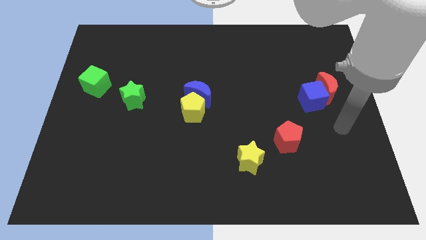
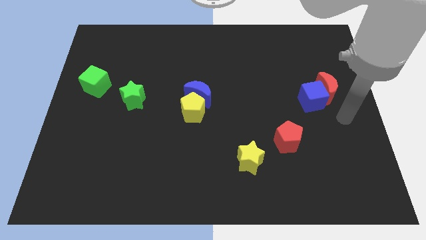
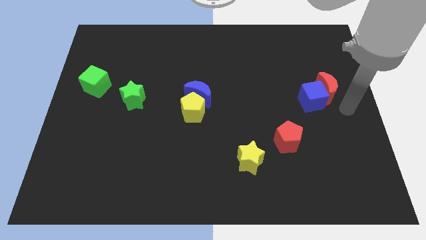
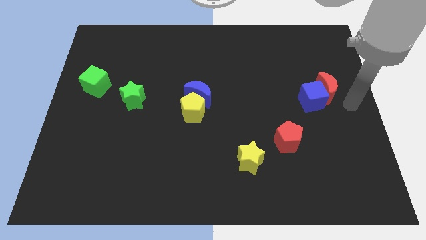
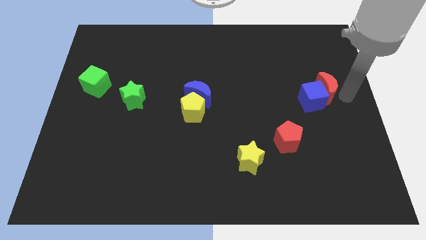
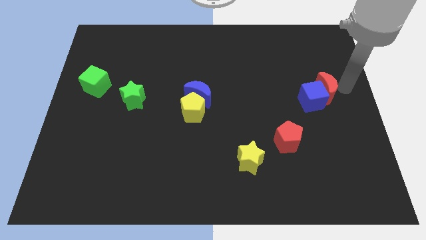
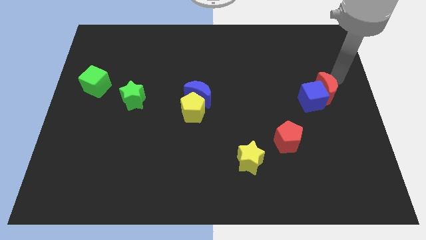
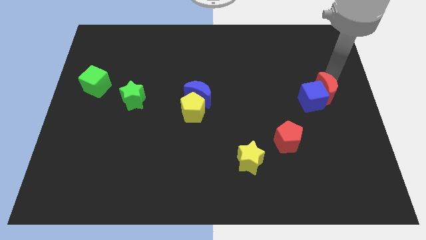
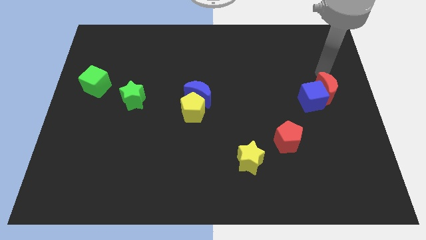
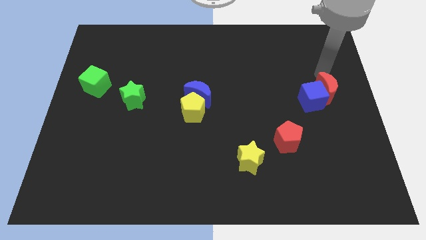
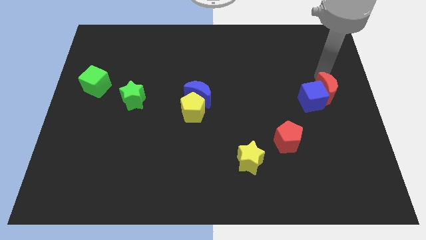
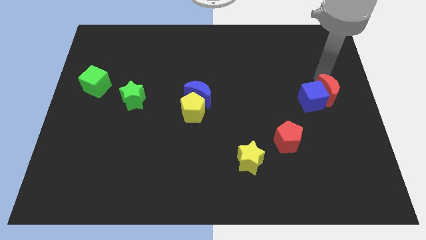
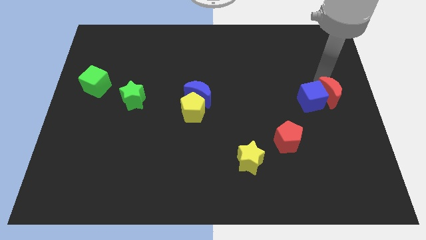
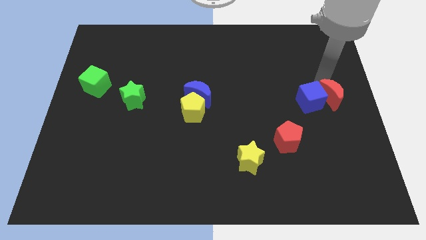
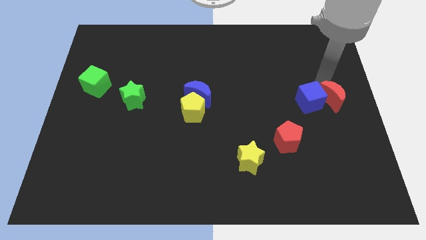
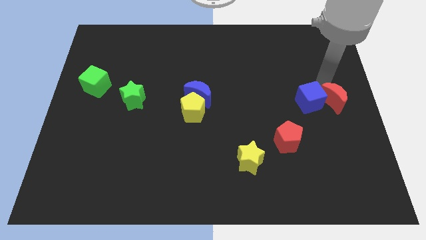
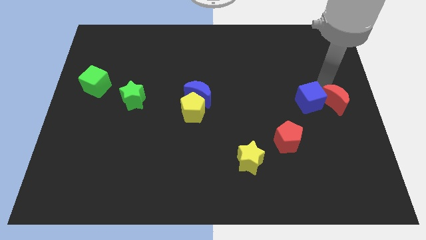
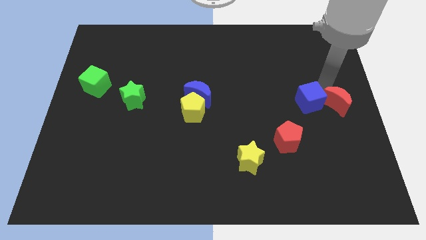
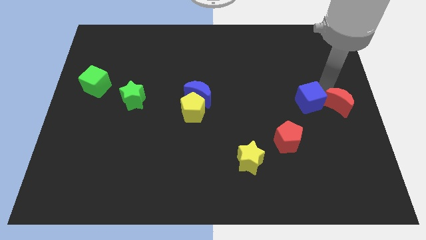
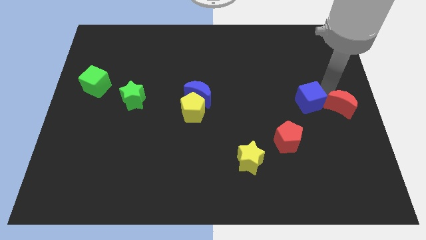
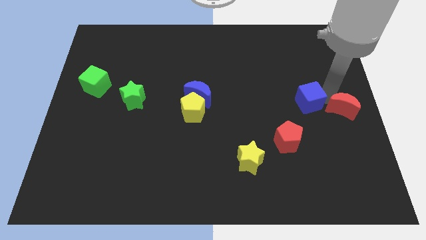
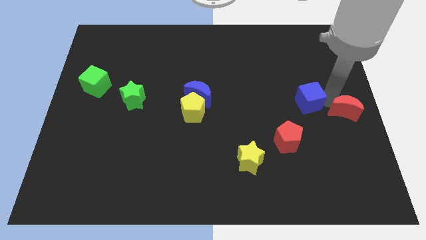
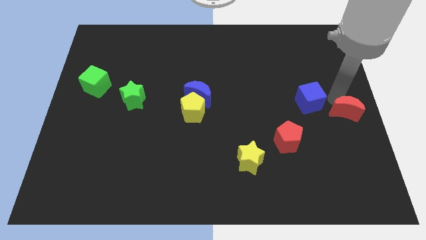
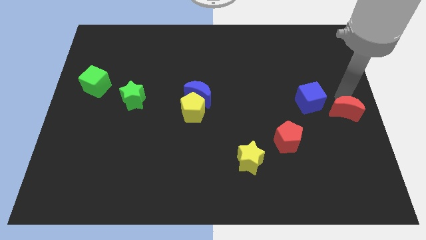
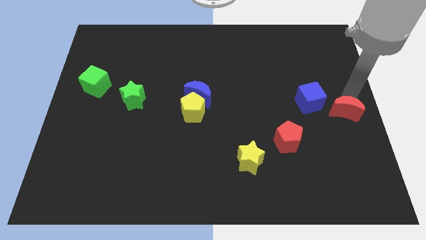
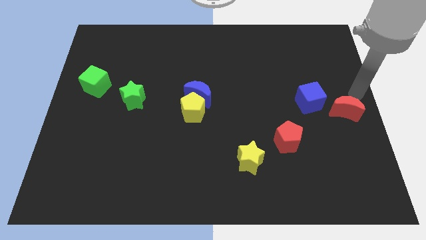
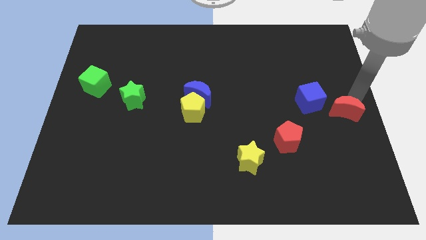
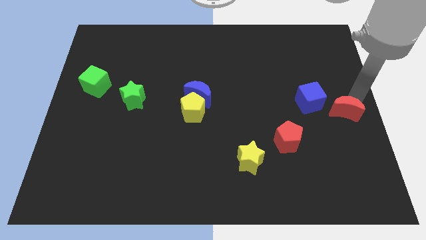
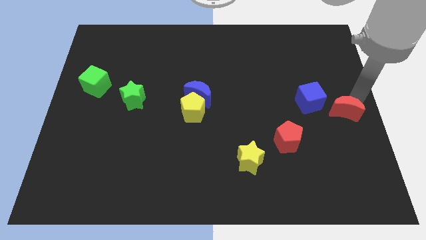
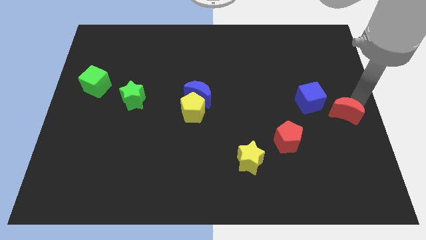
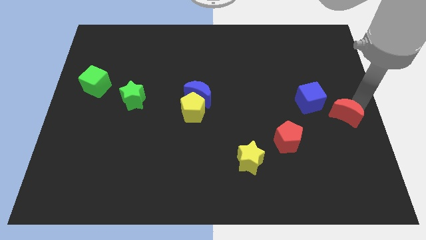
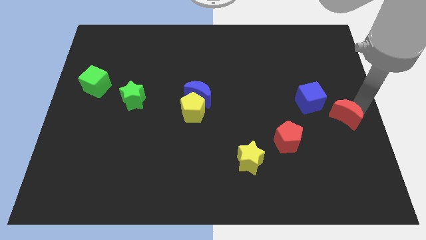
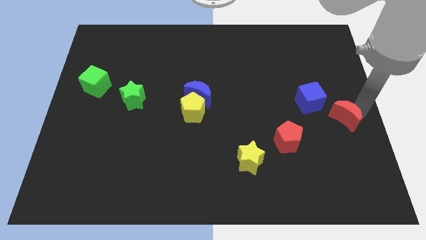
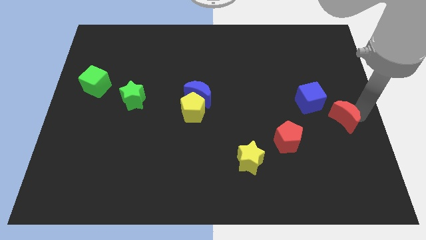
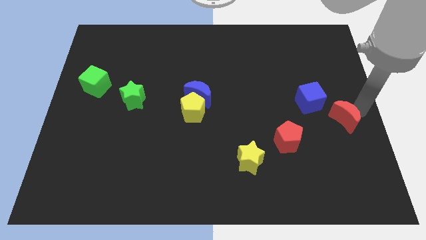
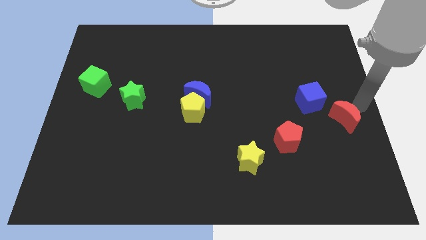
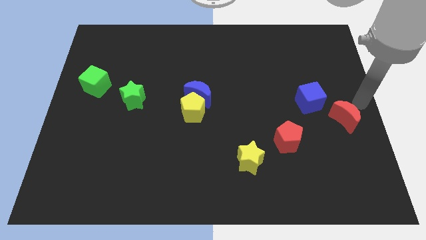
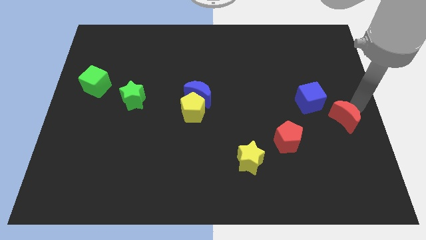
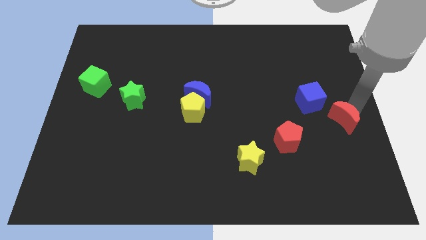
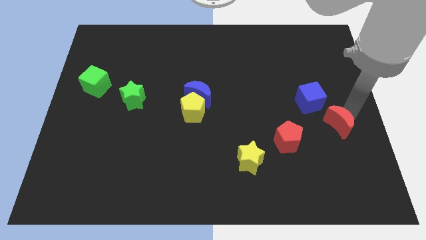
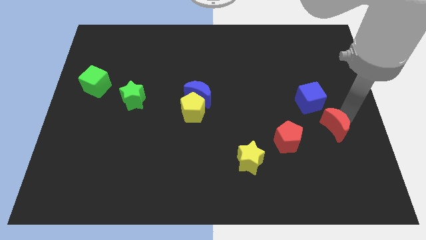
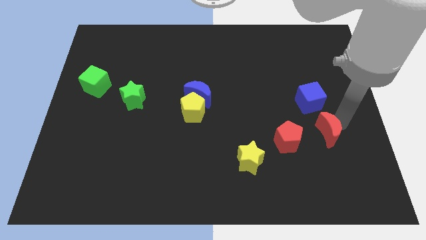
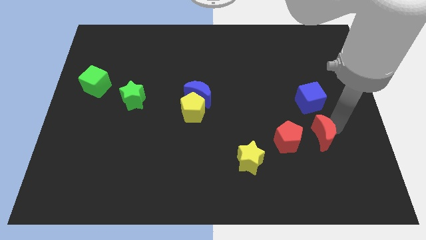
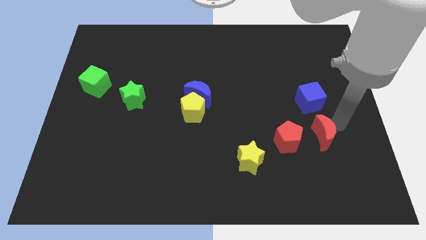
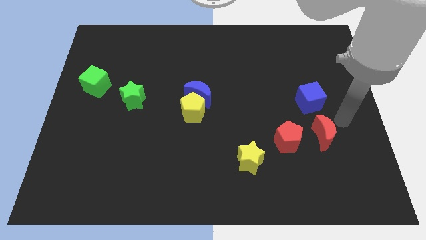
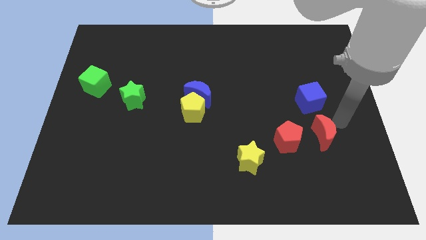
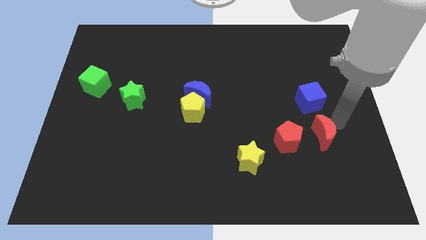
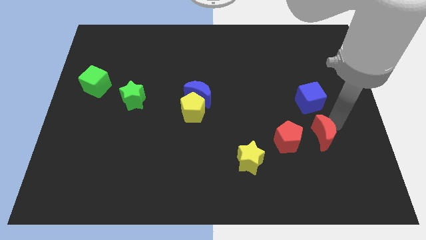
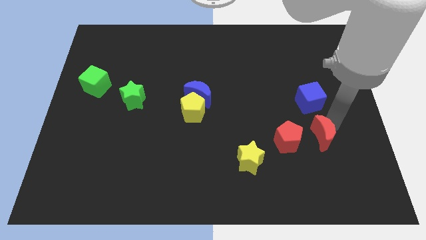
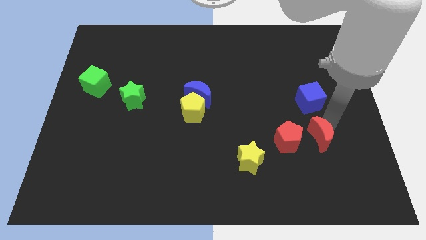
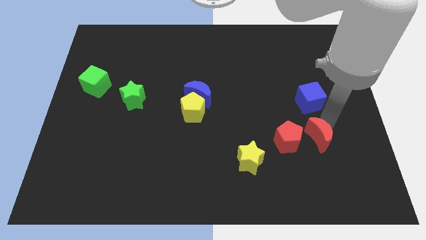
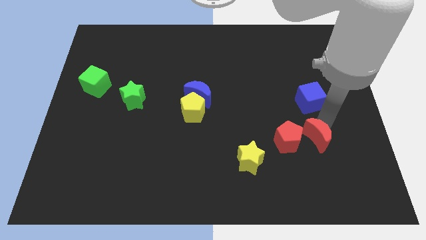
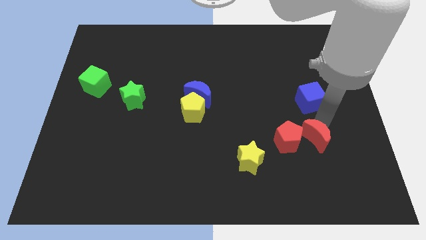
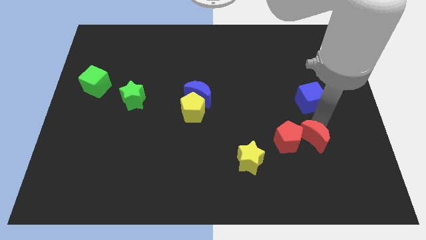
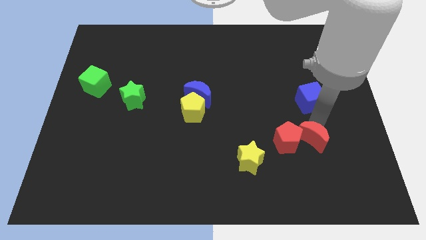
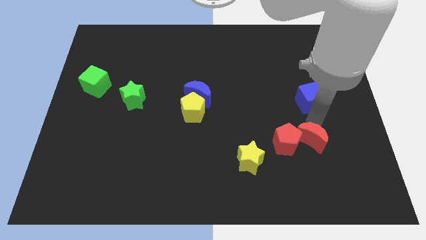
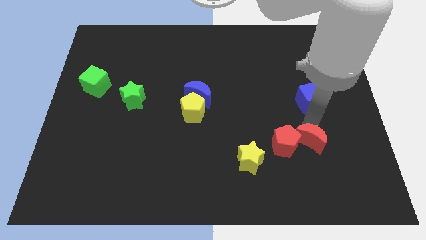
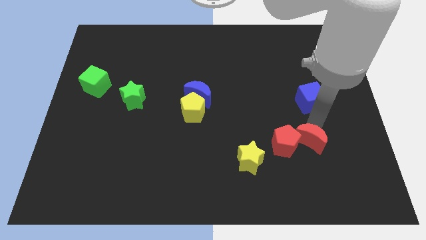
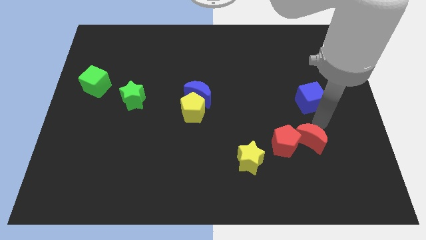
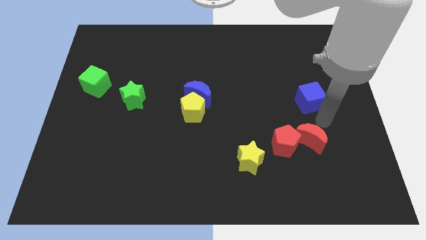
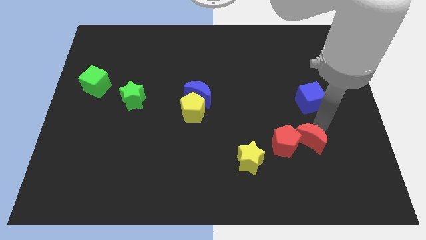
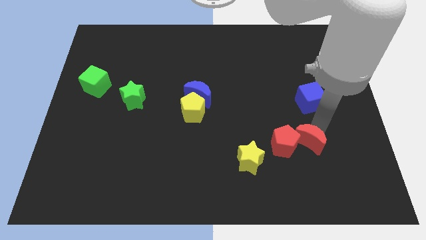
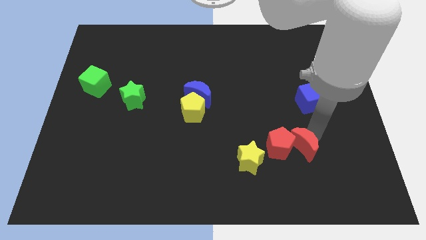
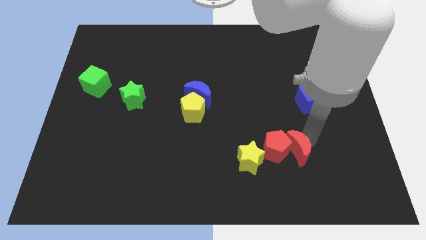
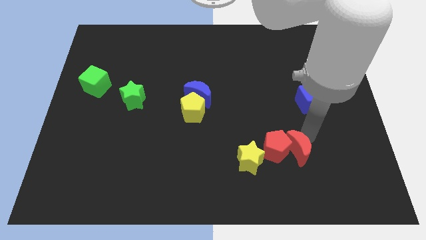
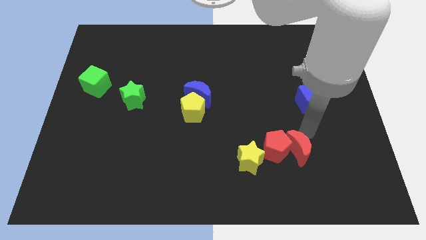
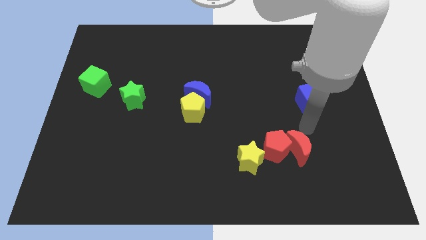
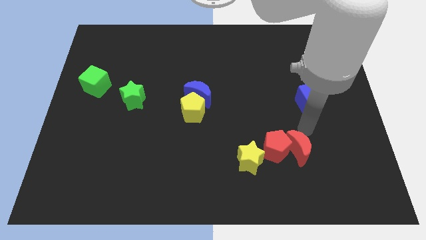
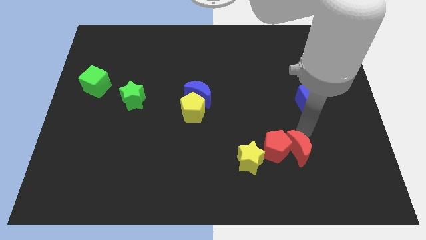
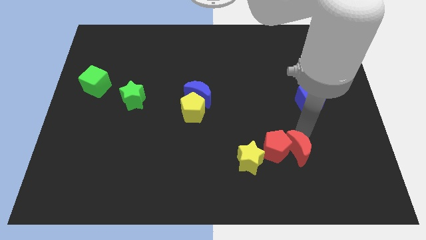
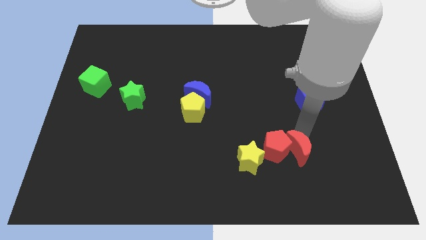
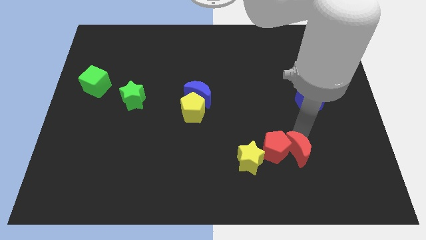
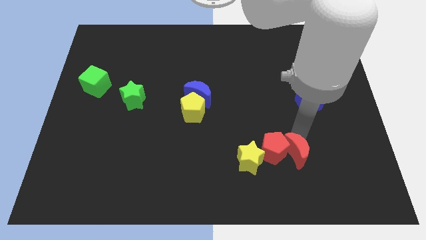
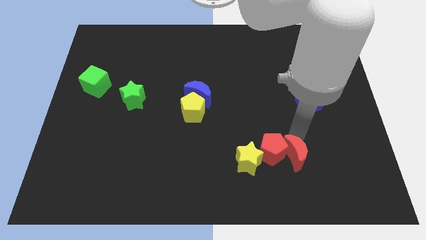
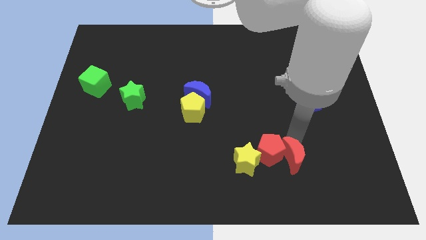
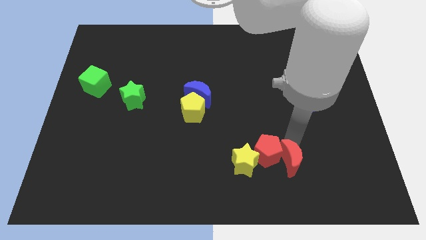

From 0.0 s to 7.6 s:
push the red moon down and then left

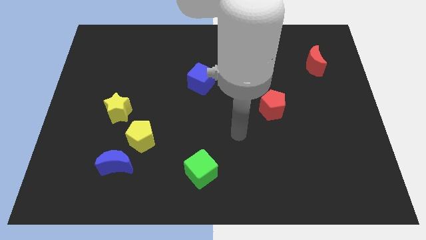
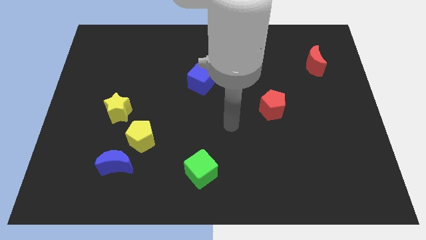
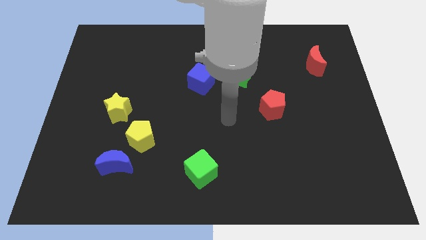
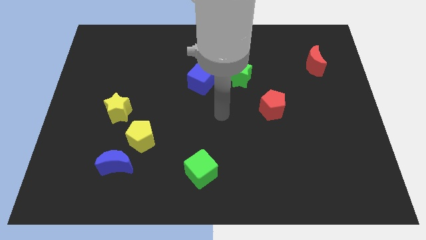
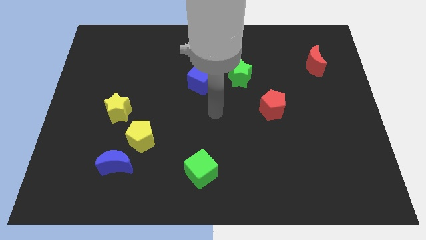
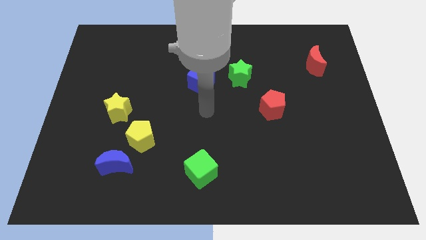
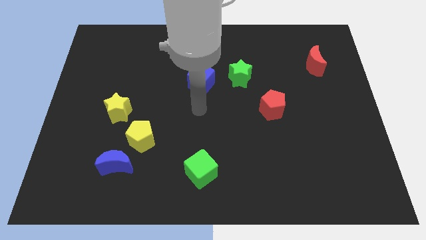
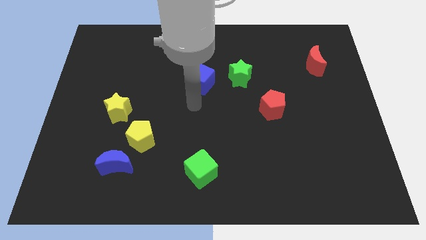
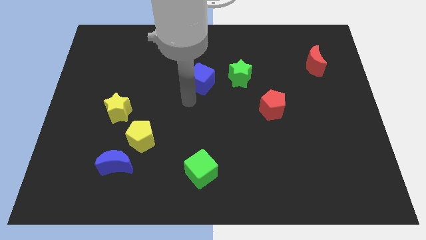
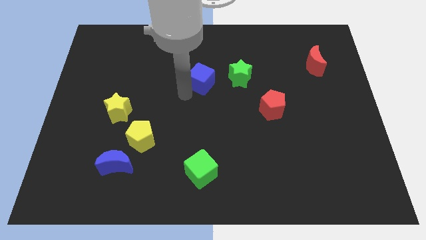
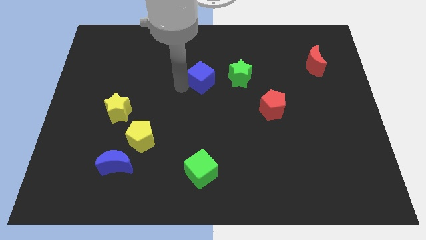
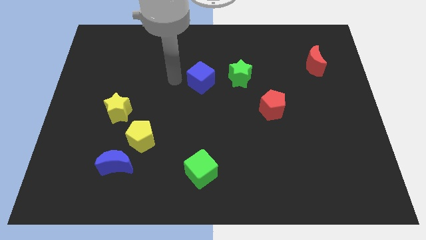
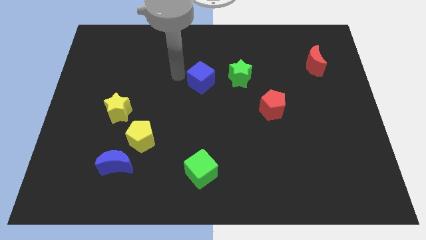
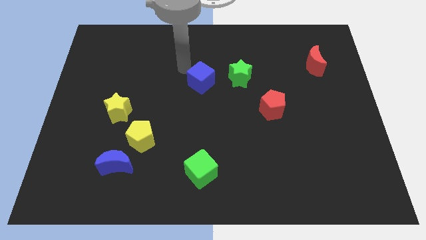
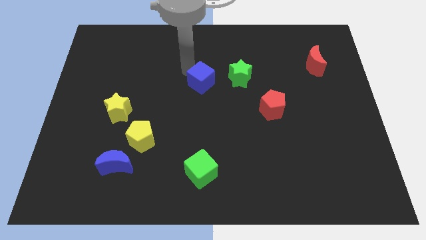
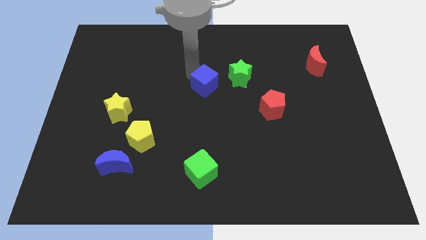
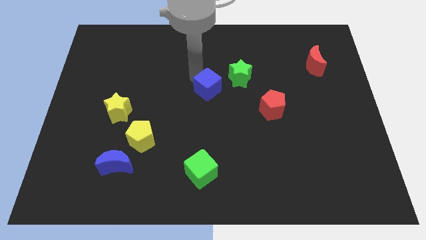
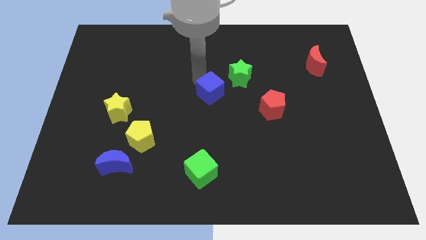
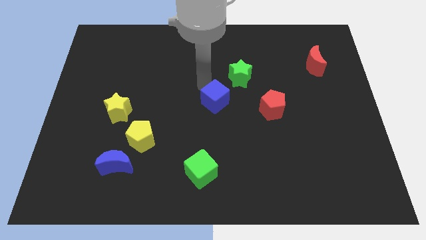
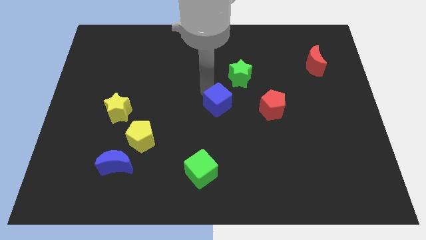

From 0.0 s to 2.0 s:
slightly slide the blue cube diagonally downwards and right
